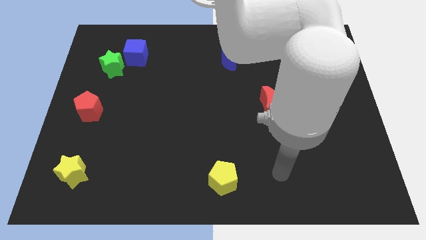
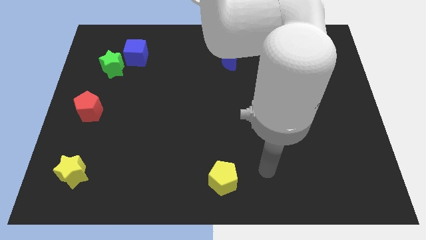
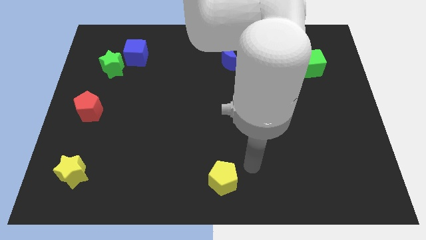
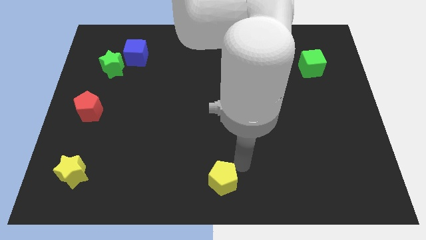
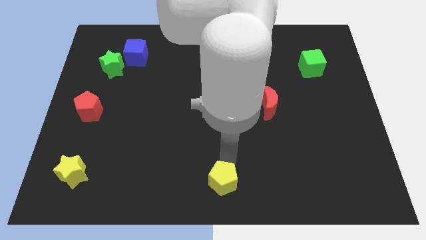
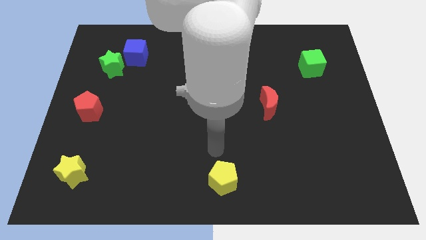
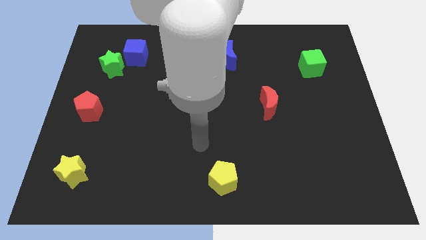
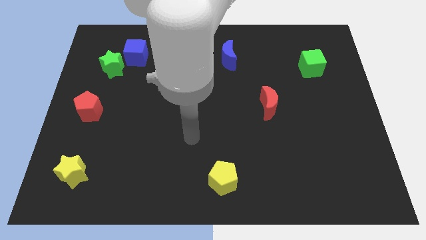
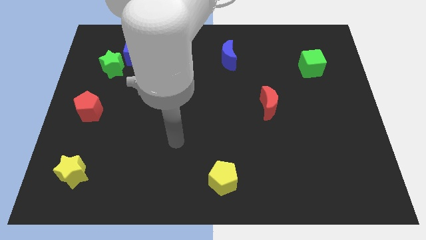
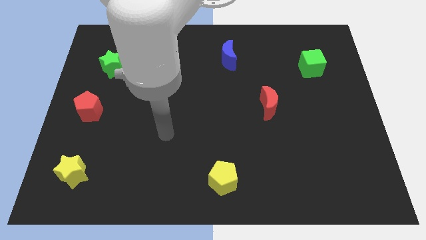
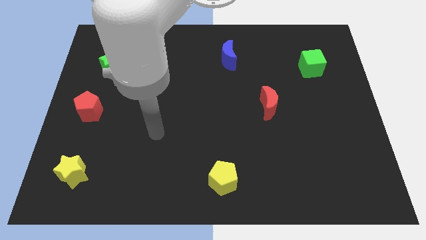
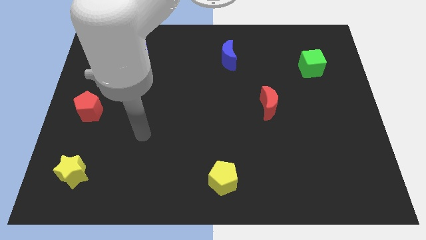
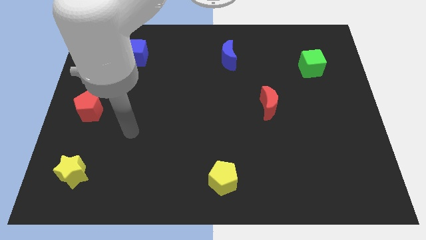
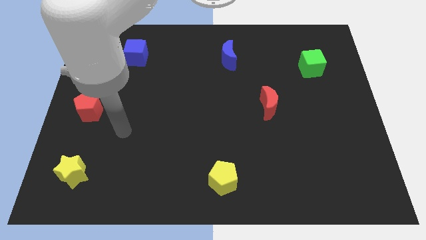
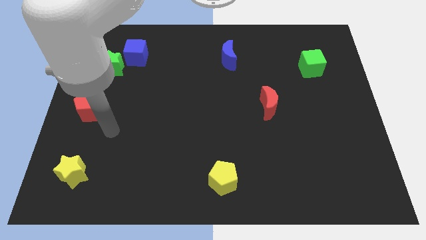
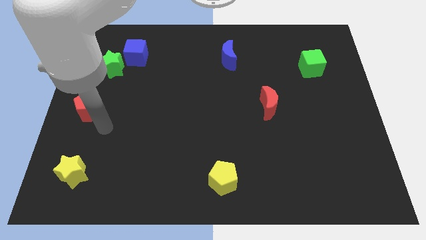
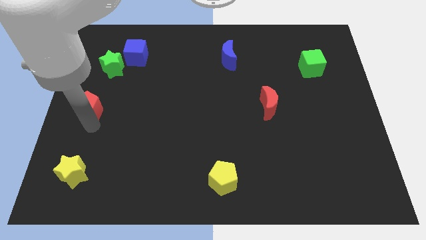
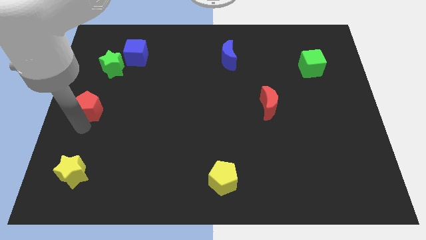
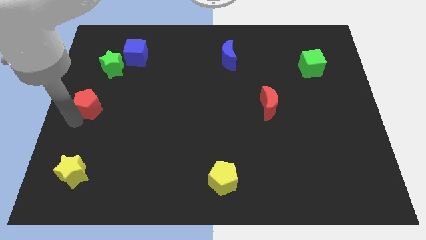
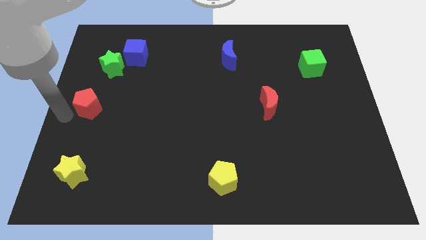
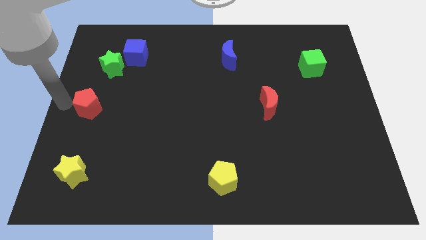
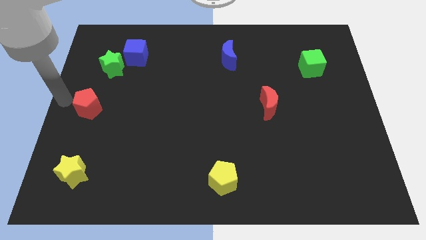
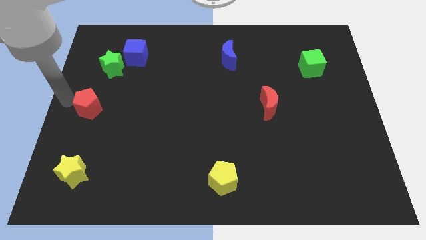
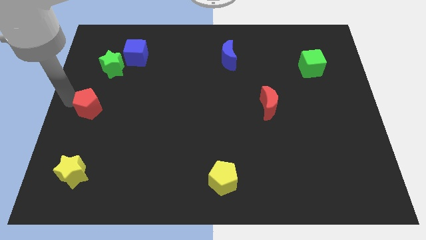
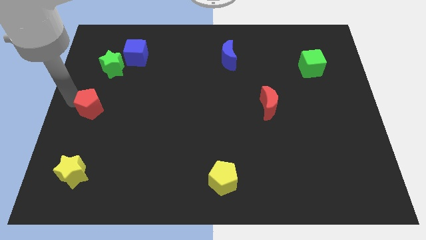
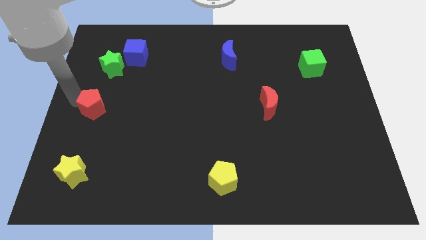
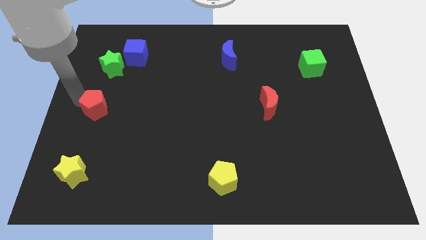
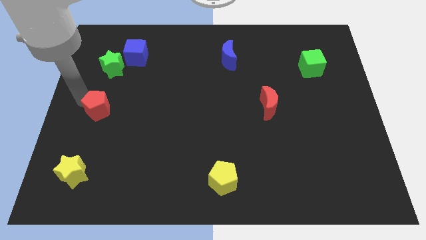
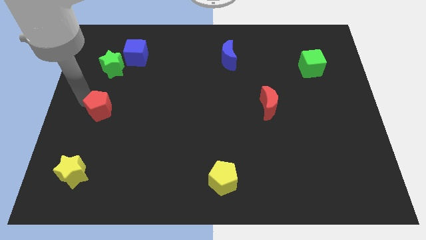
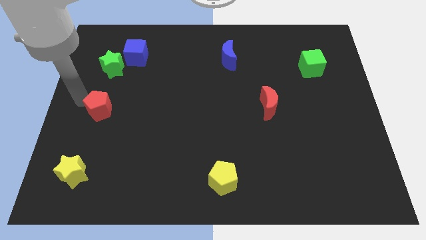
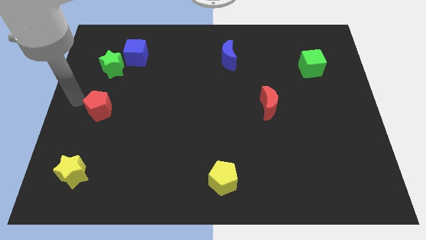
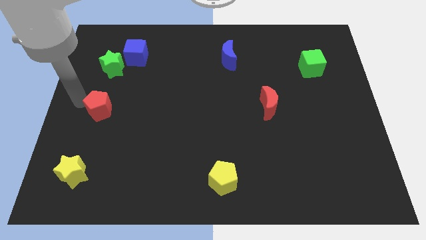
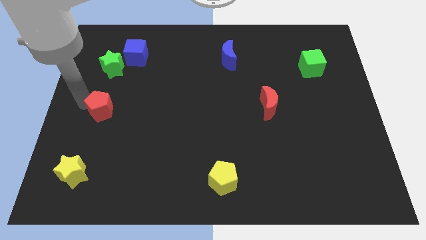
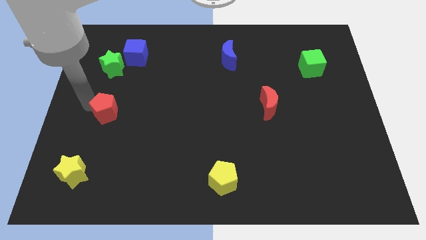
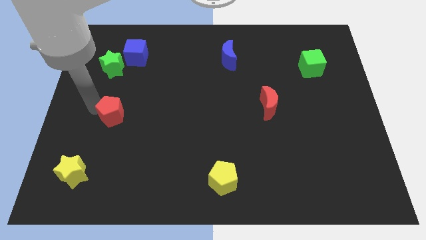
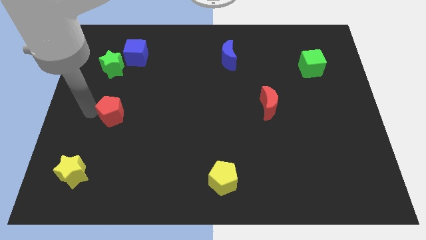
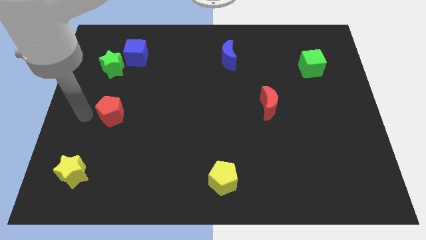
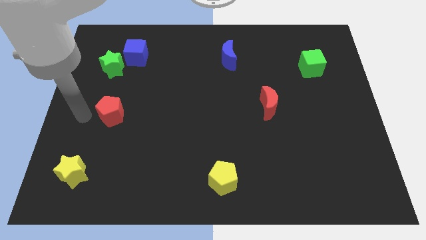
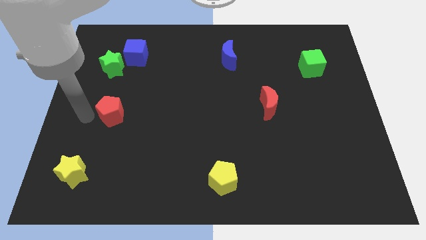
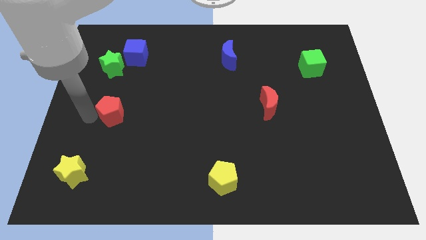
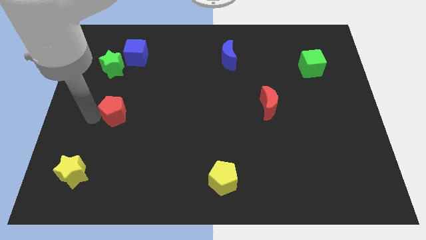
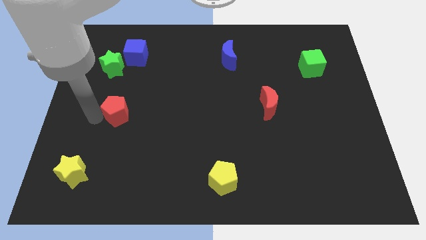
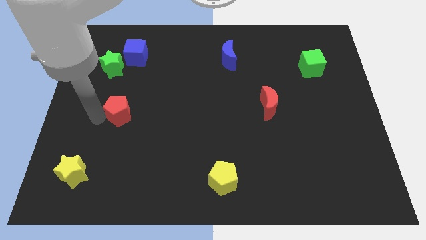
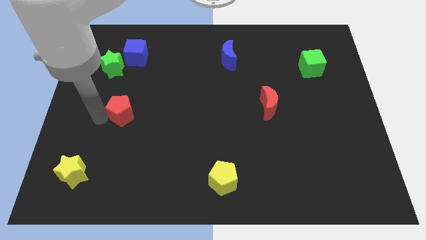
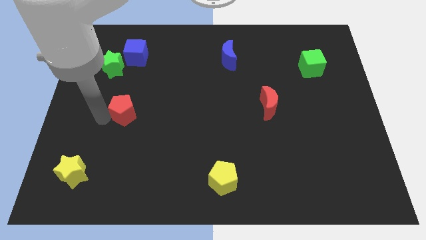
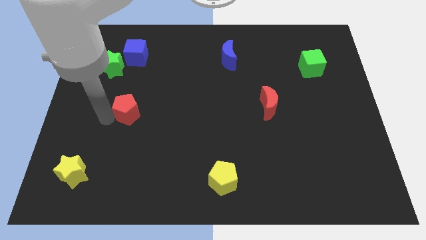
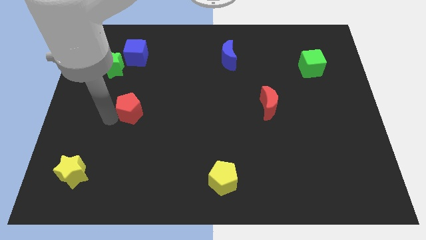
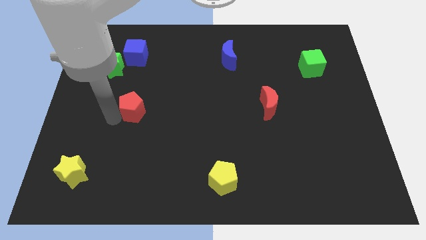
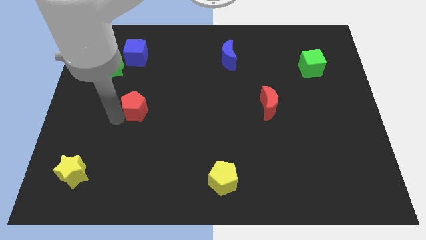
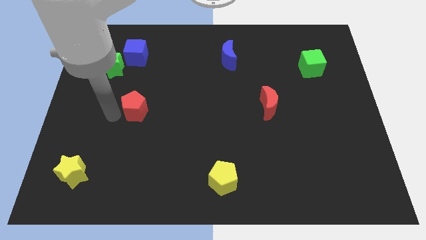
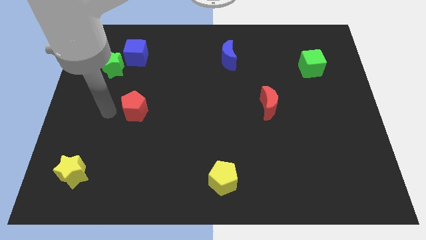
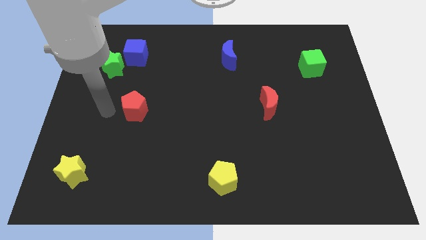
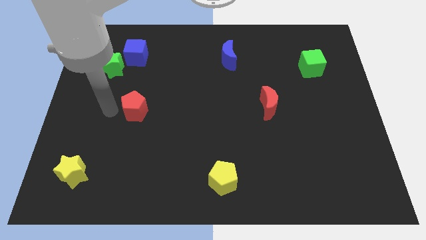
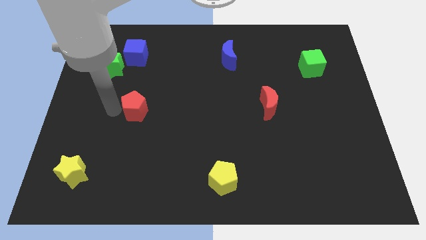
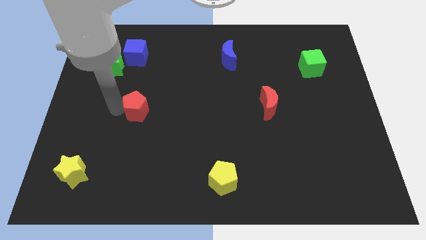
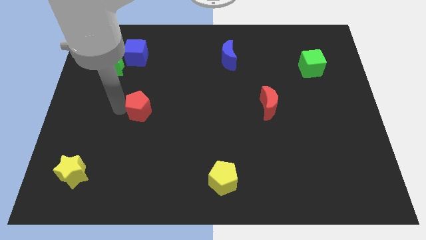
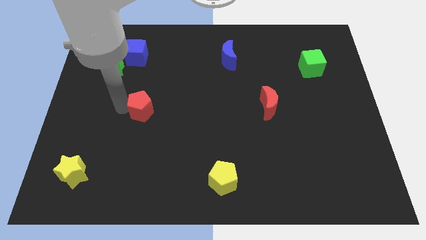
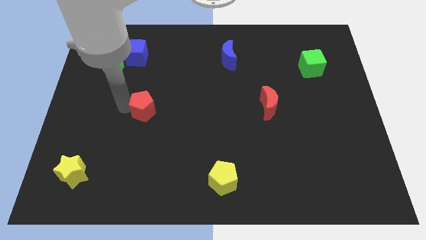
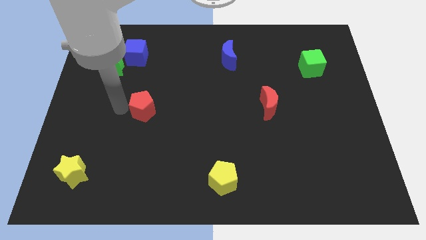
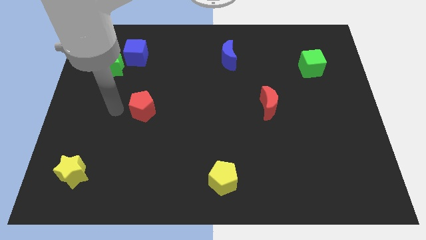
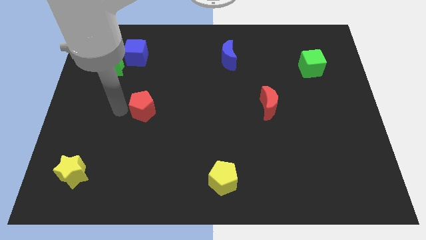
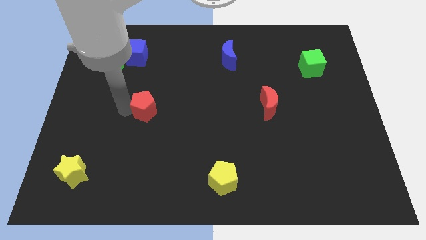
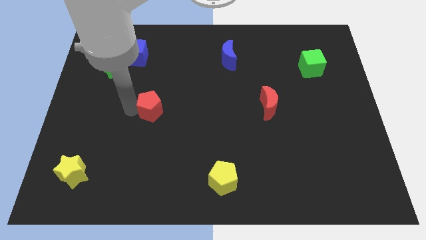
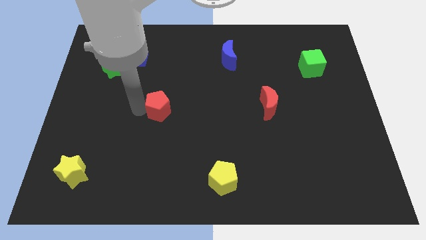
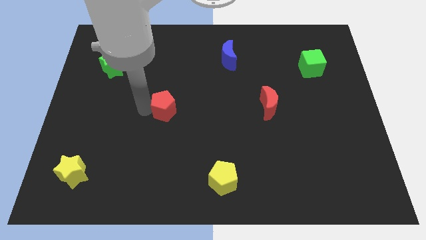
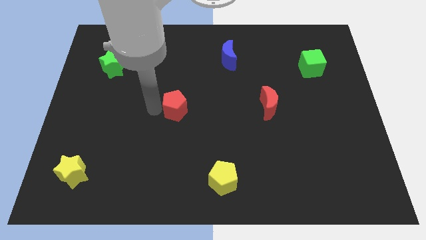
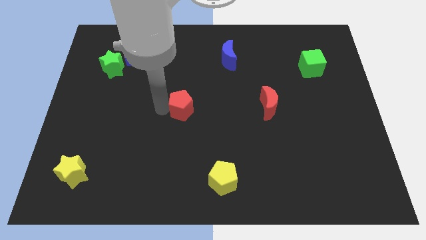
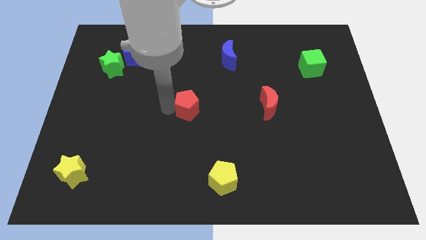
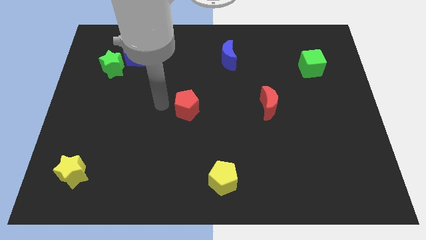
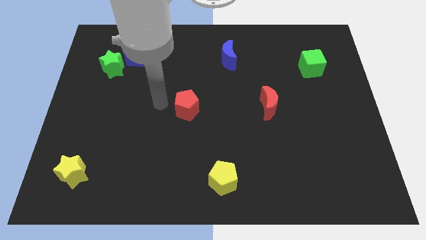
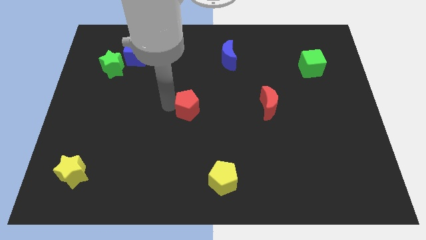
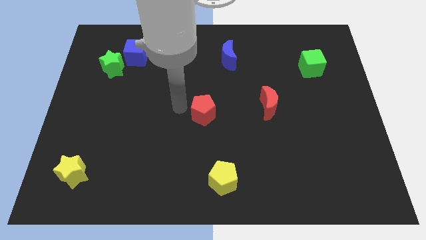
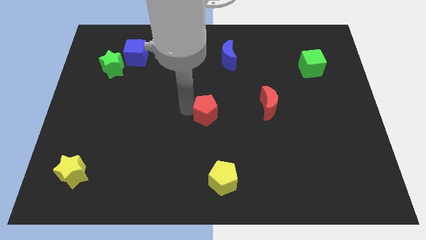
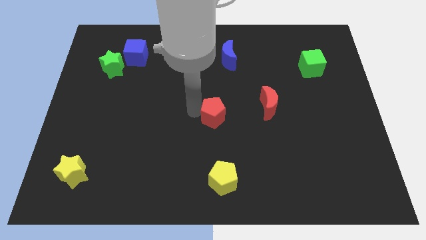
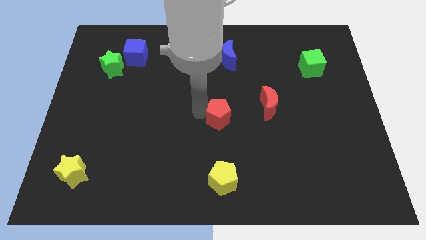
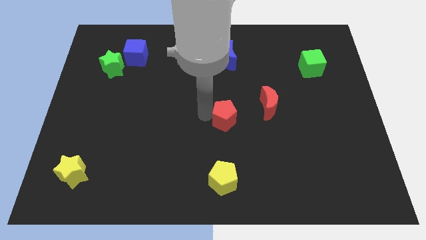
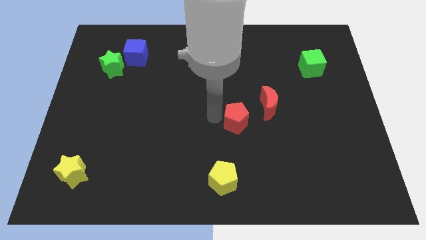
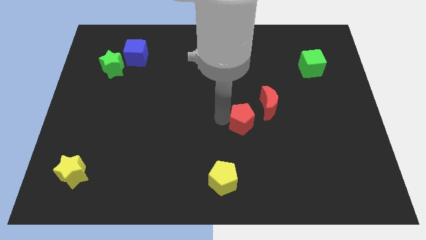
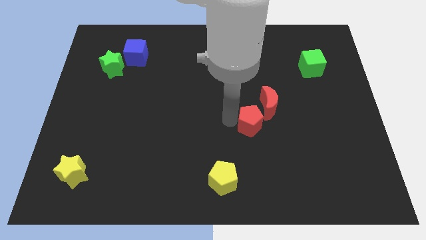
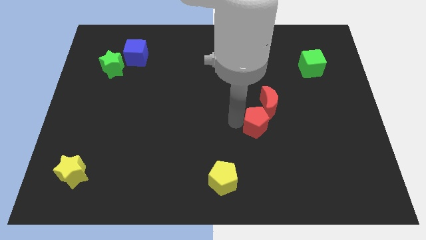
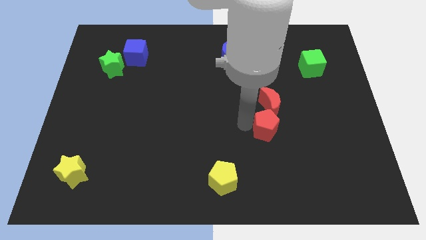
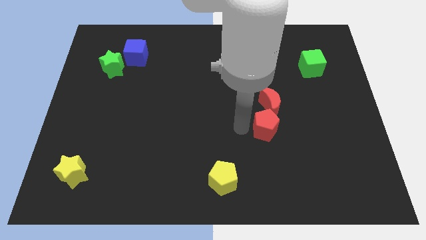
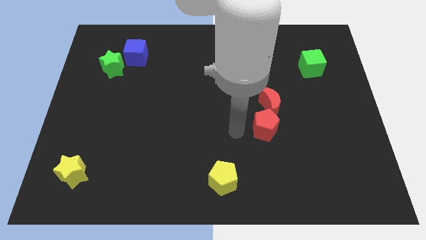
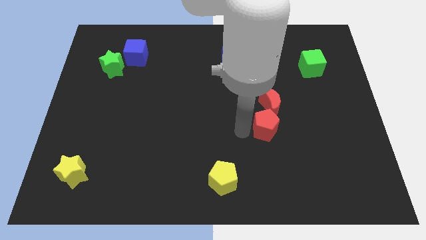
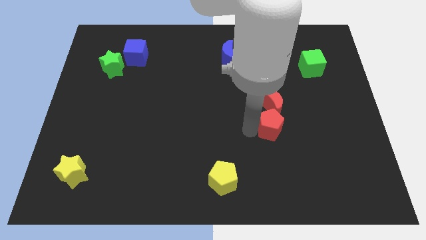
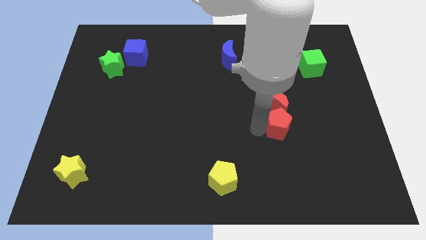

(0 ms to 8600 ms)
push the red pentagon diagonally down and to the right of the red moon
